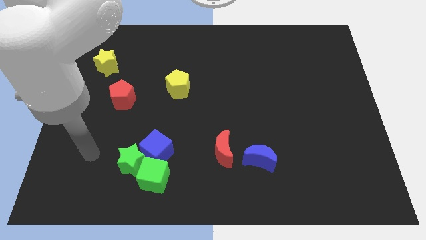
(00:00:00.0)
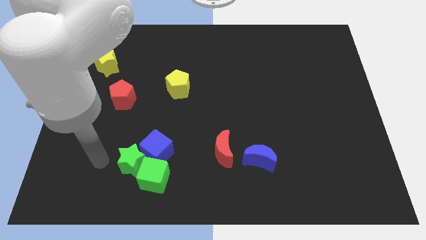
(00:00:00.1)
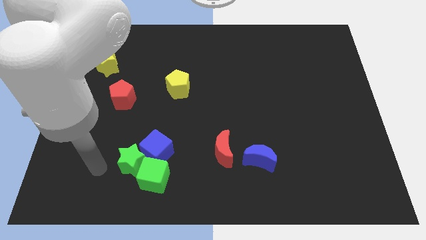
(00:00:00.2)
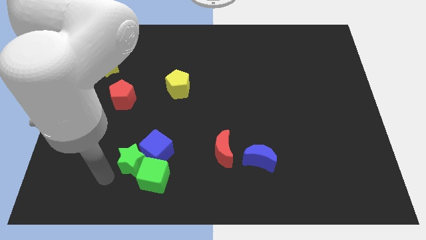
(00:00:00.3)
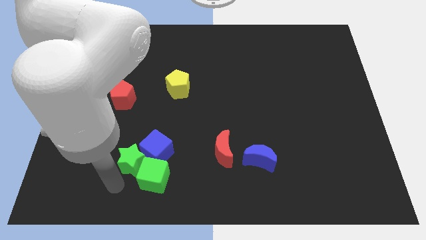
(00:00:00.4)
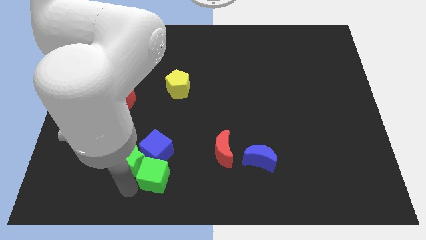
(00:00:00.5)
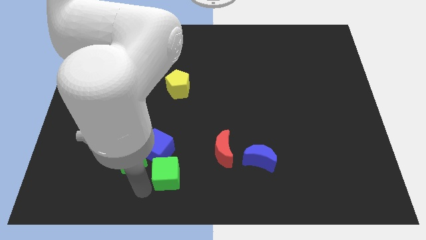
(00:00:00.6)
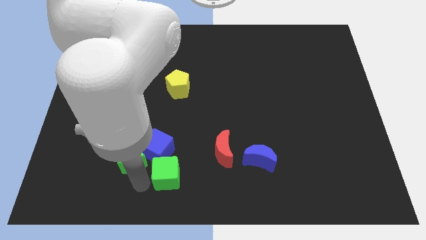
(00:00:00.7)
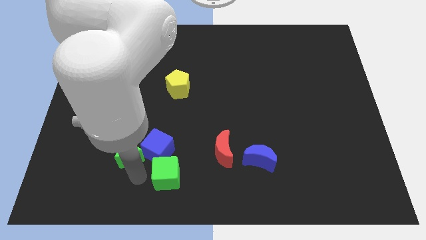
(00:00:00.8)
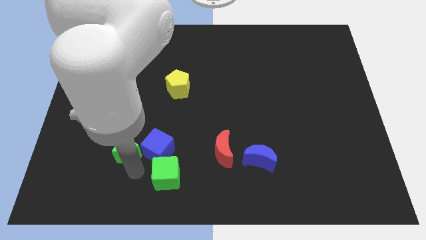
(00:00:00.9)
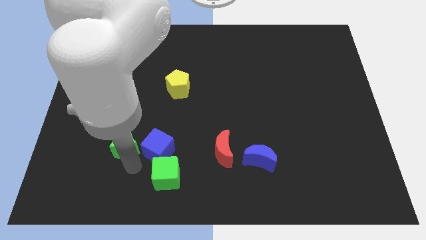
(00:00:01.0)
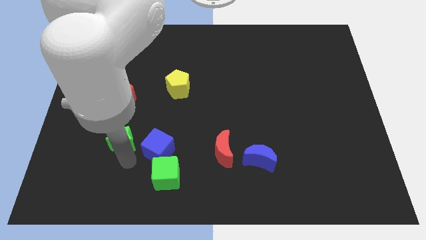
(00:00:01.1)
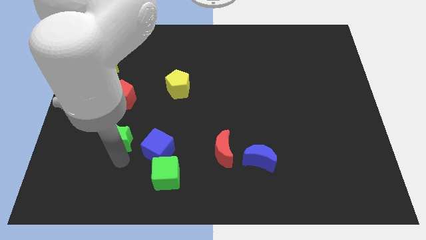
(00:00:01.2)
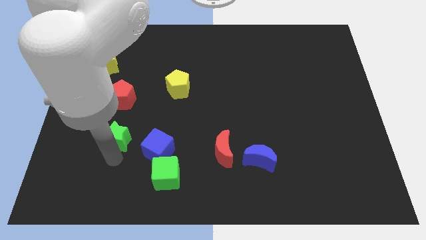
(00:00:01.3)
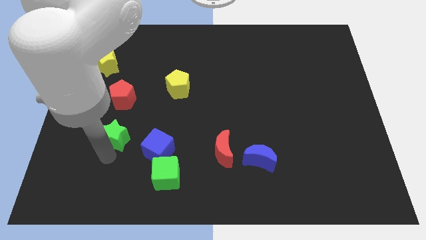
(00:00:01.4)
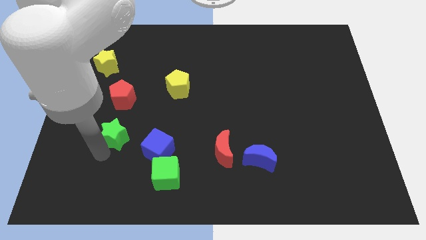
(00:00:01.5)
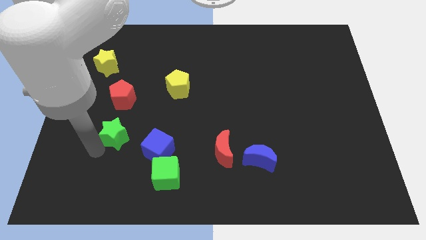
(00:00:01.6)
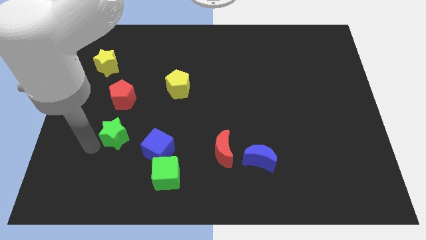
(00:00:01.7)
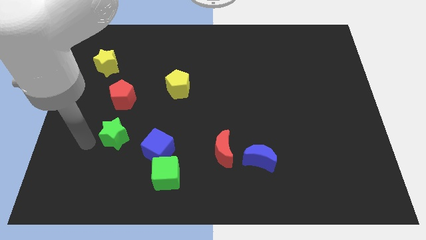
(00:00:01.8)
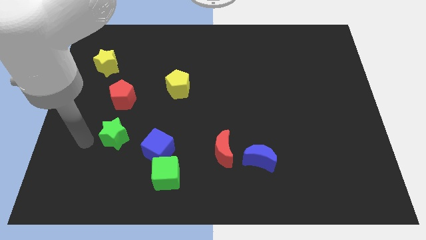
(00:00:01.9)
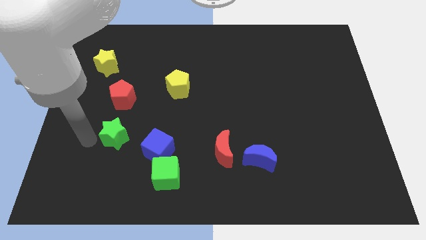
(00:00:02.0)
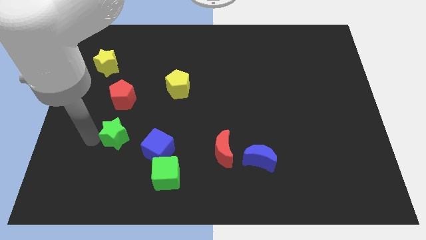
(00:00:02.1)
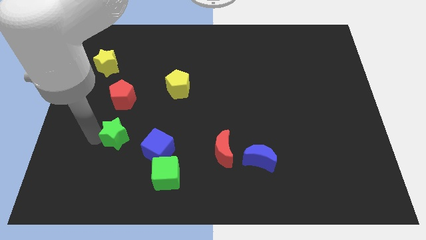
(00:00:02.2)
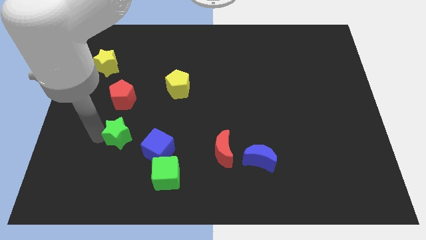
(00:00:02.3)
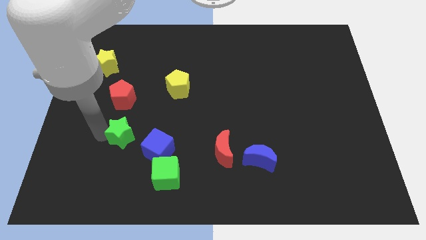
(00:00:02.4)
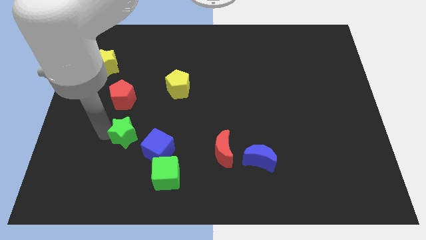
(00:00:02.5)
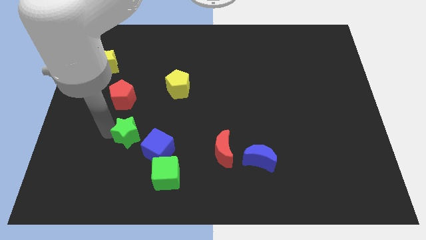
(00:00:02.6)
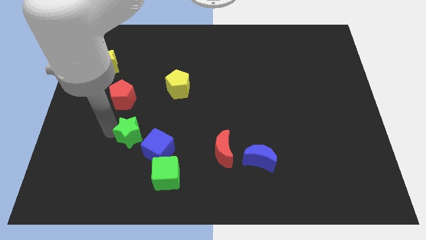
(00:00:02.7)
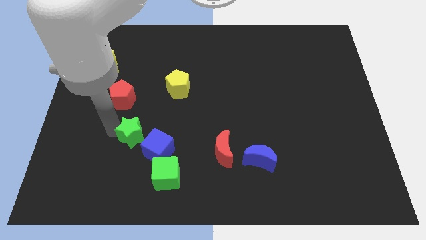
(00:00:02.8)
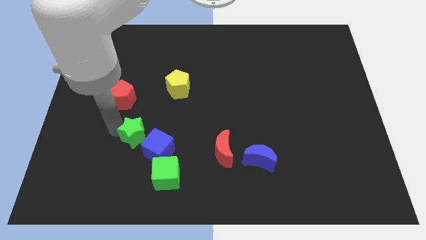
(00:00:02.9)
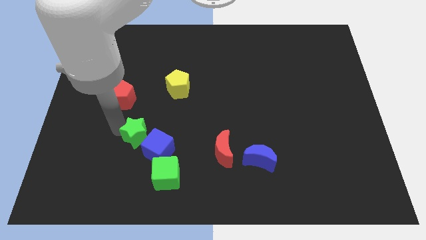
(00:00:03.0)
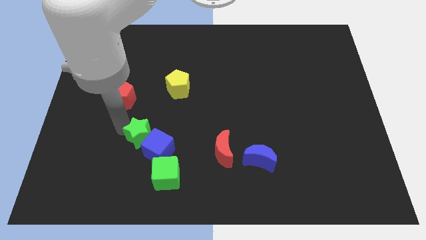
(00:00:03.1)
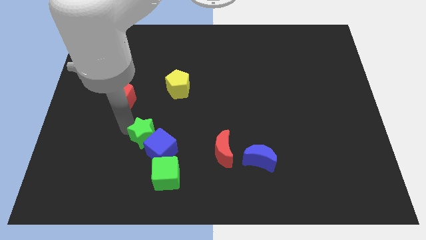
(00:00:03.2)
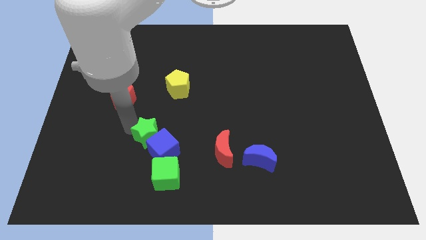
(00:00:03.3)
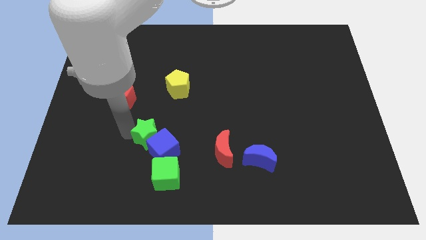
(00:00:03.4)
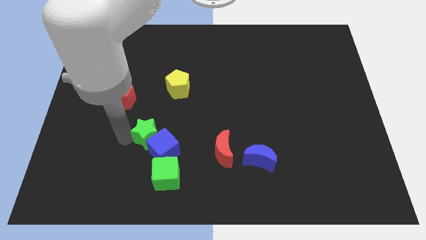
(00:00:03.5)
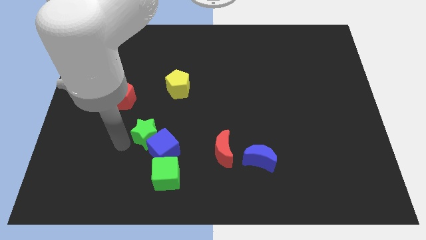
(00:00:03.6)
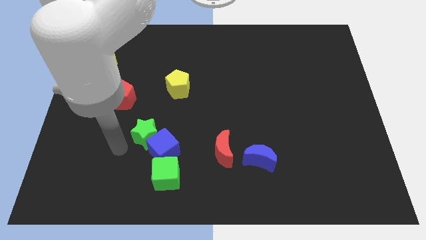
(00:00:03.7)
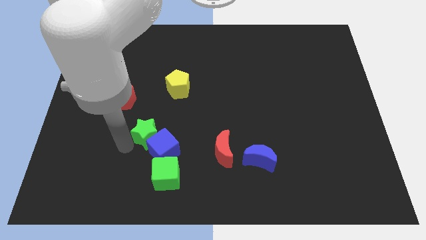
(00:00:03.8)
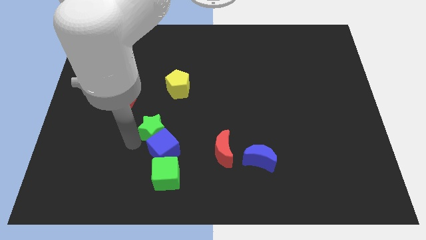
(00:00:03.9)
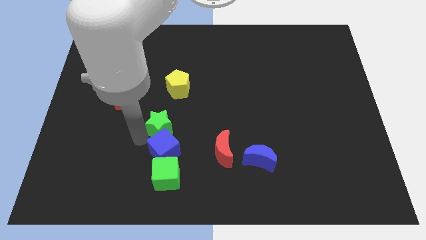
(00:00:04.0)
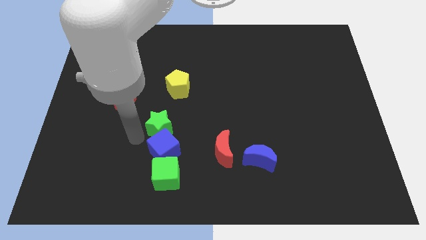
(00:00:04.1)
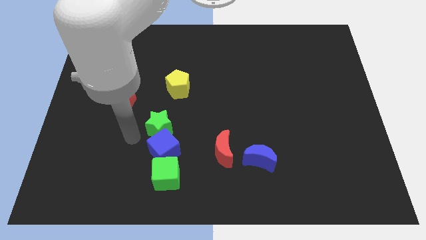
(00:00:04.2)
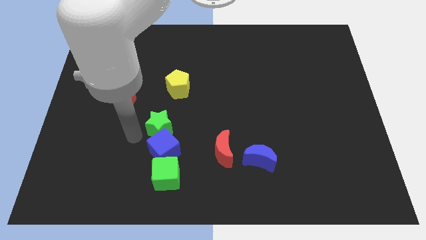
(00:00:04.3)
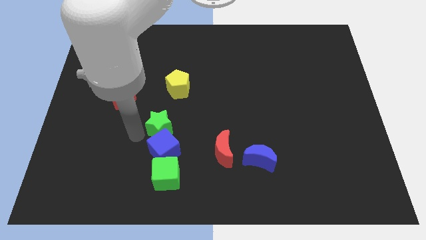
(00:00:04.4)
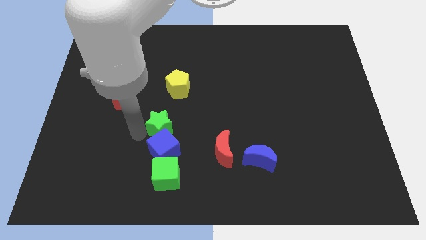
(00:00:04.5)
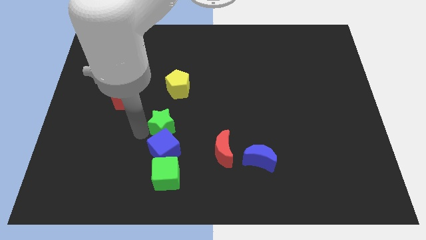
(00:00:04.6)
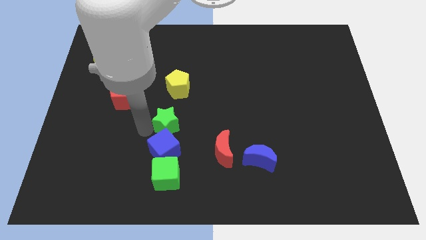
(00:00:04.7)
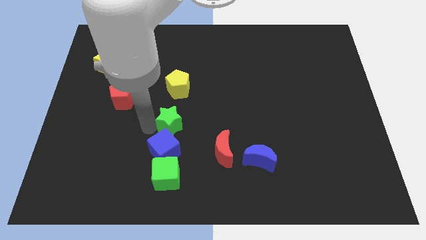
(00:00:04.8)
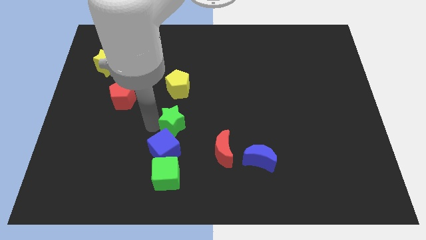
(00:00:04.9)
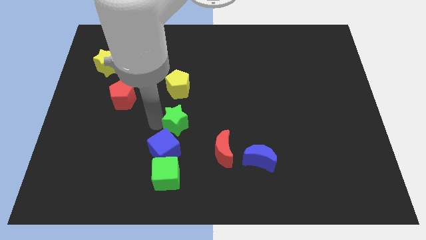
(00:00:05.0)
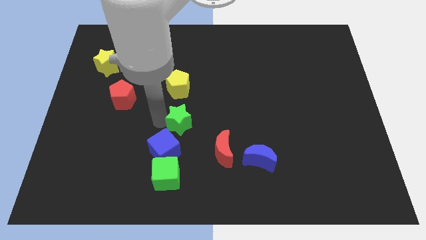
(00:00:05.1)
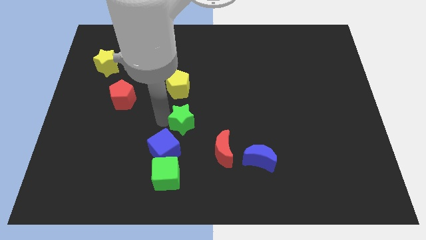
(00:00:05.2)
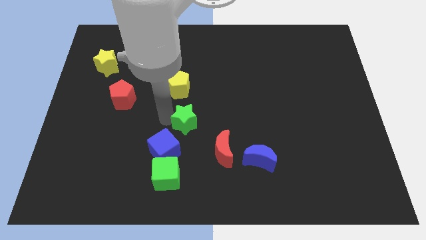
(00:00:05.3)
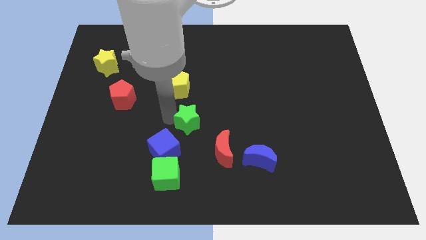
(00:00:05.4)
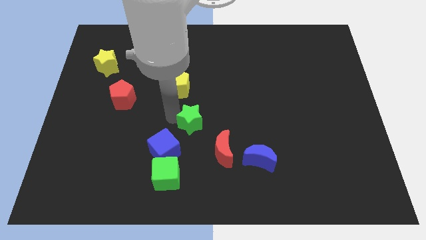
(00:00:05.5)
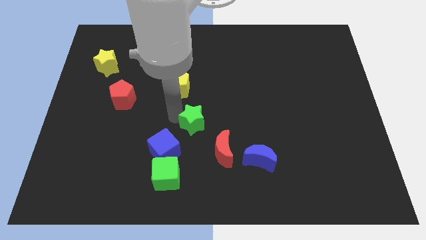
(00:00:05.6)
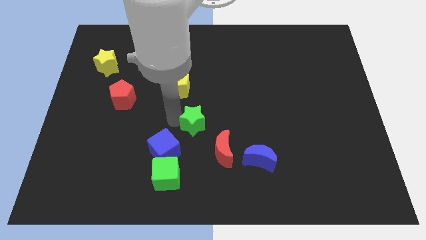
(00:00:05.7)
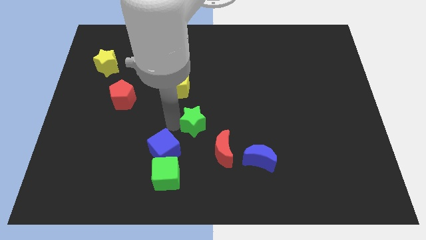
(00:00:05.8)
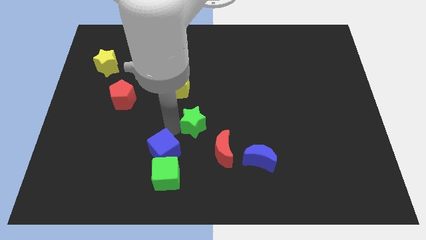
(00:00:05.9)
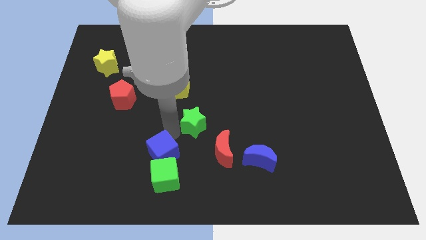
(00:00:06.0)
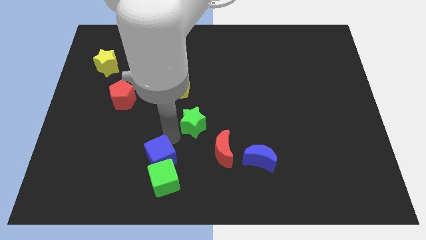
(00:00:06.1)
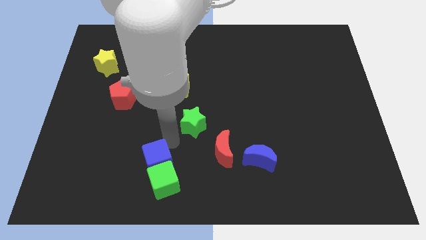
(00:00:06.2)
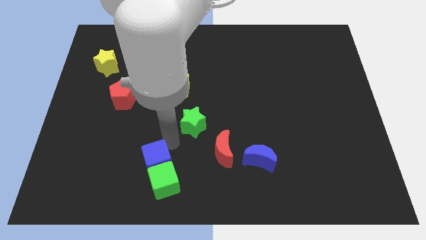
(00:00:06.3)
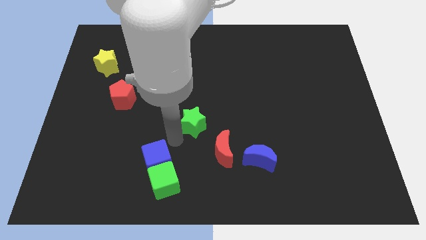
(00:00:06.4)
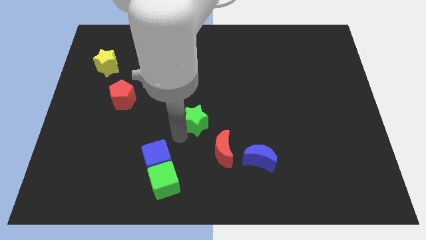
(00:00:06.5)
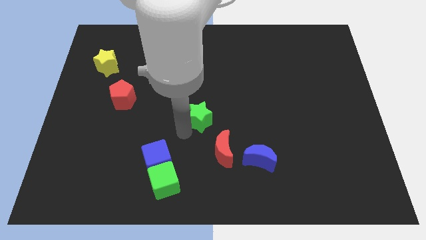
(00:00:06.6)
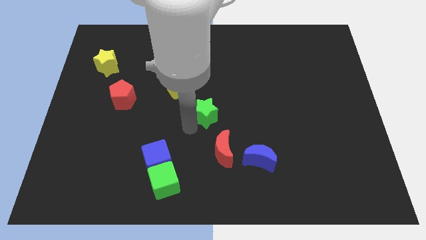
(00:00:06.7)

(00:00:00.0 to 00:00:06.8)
slide the green star up and right

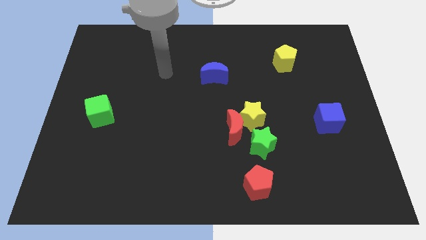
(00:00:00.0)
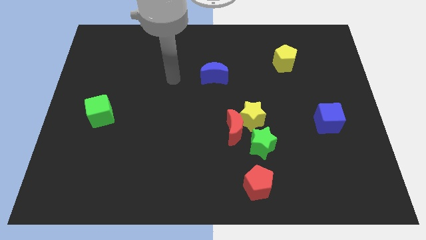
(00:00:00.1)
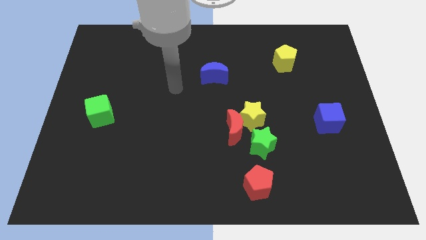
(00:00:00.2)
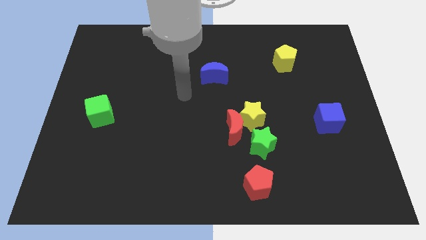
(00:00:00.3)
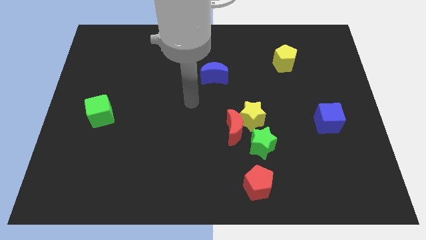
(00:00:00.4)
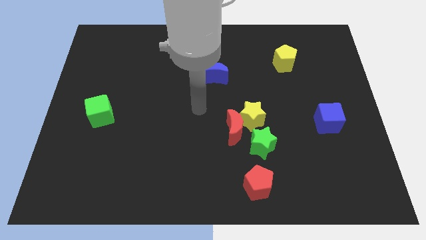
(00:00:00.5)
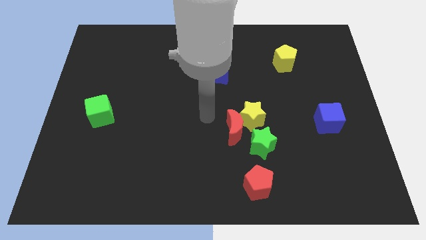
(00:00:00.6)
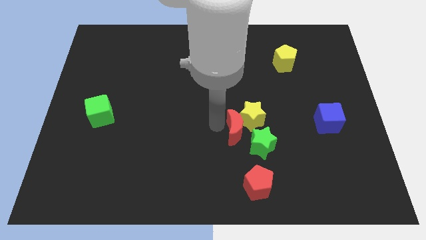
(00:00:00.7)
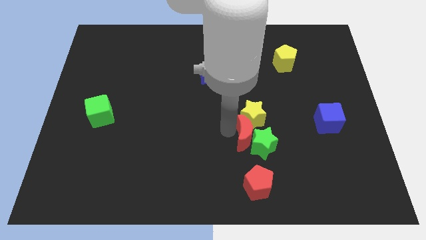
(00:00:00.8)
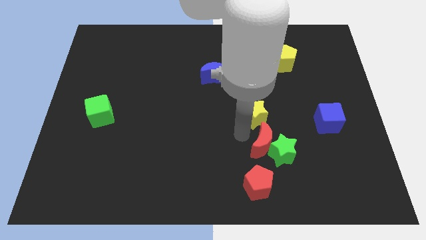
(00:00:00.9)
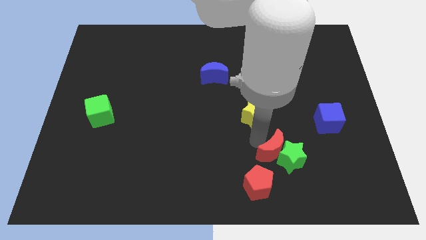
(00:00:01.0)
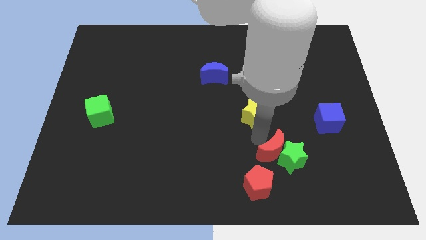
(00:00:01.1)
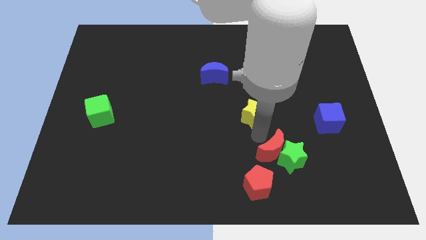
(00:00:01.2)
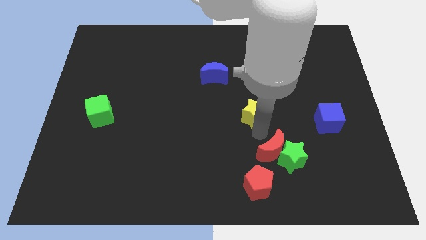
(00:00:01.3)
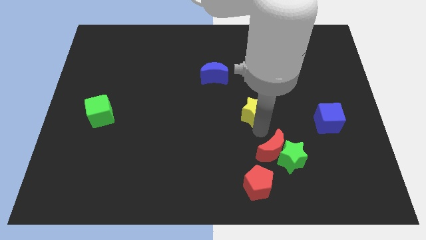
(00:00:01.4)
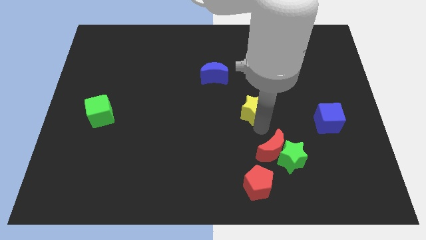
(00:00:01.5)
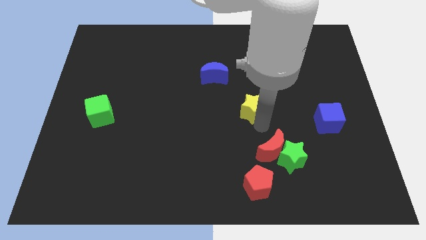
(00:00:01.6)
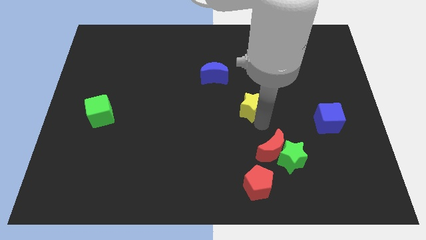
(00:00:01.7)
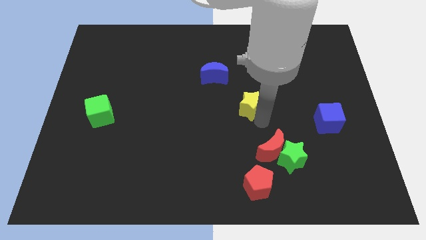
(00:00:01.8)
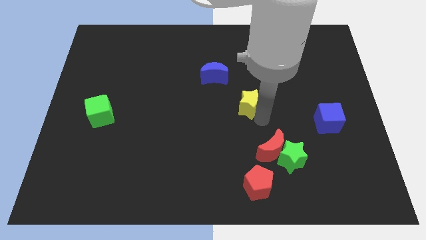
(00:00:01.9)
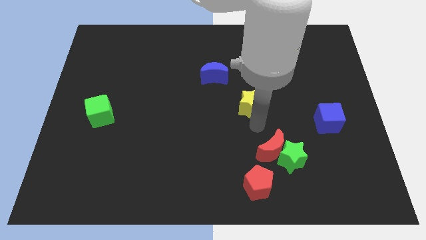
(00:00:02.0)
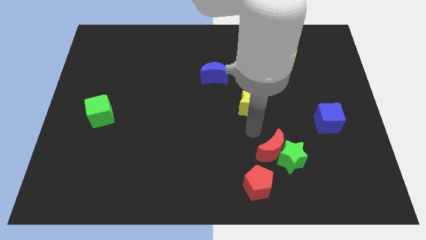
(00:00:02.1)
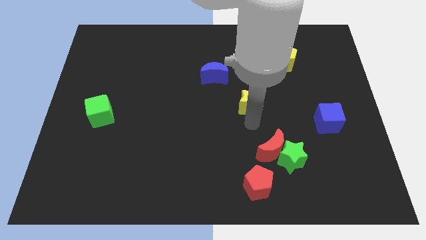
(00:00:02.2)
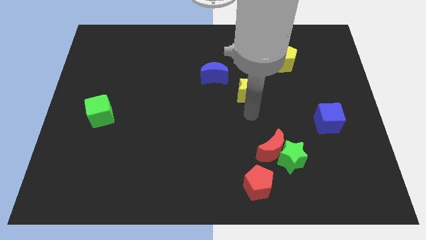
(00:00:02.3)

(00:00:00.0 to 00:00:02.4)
move the yellow star slightly upwards
